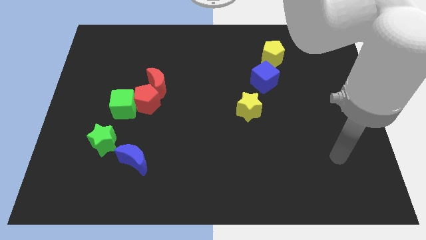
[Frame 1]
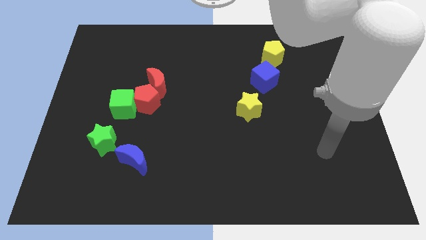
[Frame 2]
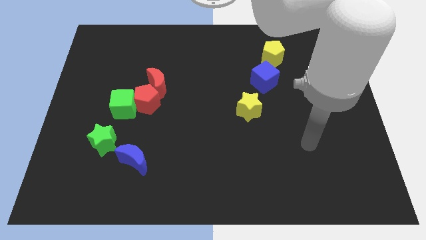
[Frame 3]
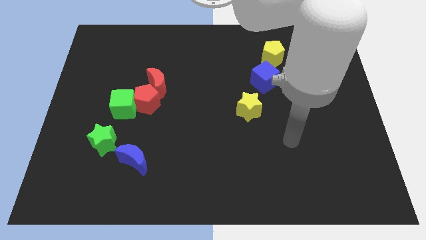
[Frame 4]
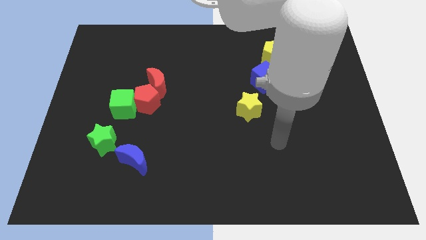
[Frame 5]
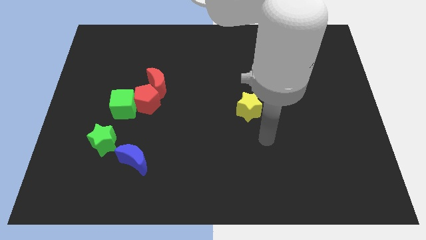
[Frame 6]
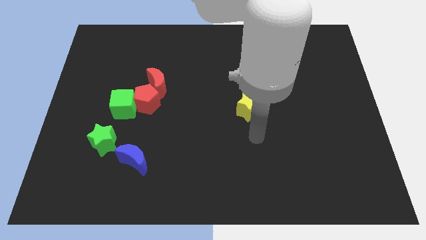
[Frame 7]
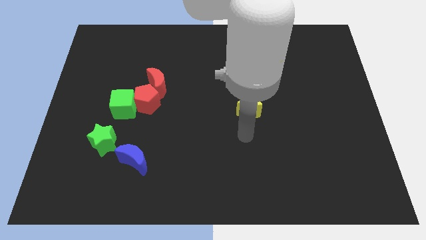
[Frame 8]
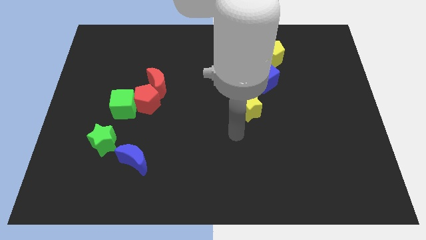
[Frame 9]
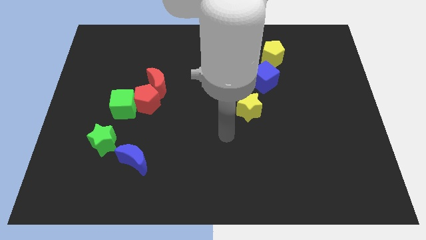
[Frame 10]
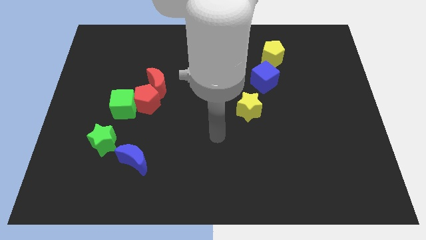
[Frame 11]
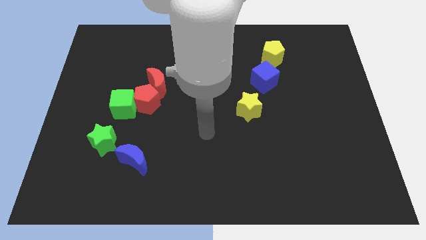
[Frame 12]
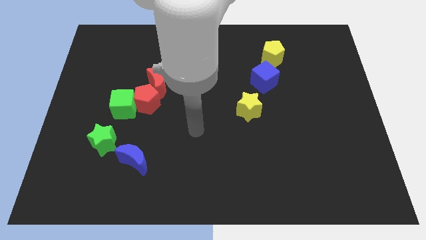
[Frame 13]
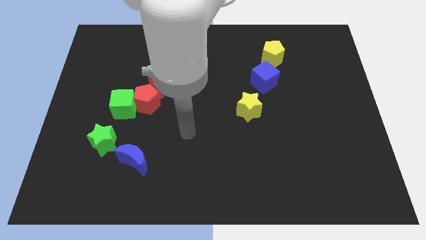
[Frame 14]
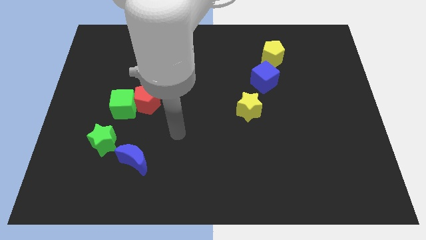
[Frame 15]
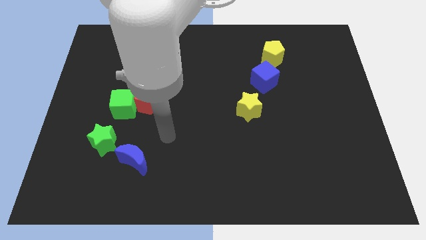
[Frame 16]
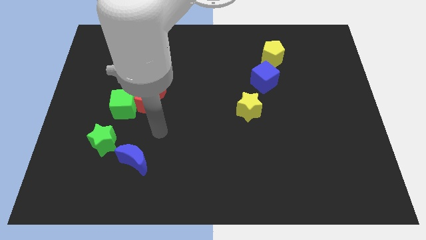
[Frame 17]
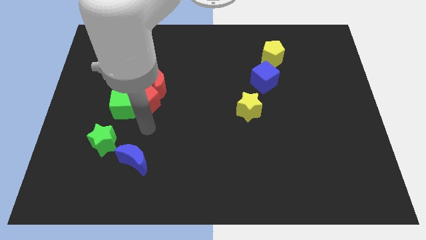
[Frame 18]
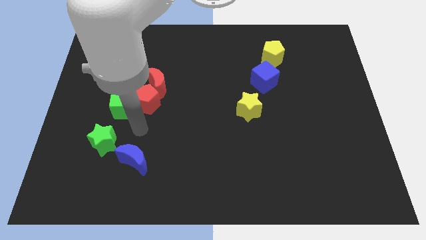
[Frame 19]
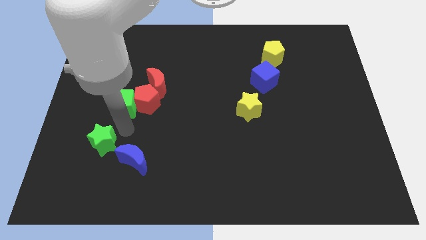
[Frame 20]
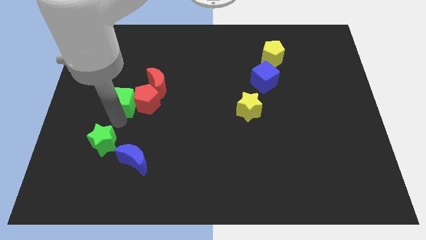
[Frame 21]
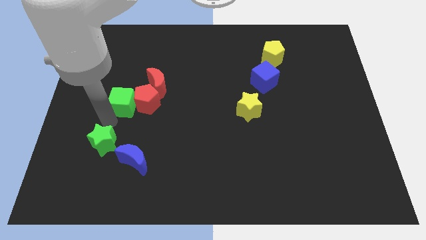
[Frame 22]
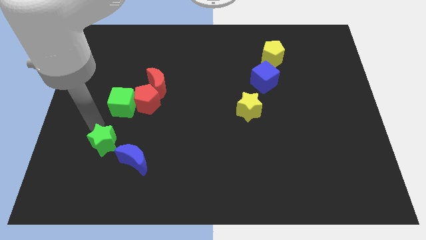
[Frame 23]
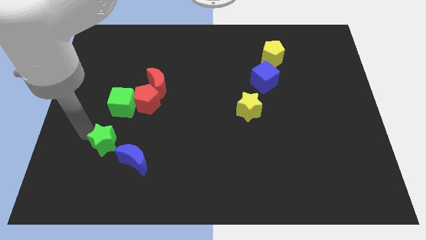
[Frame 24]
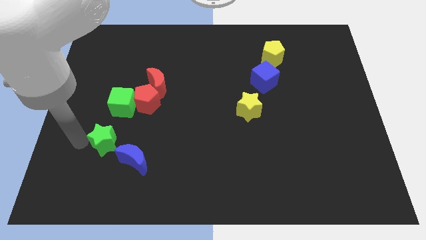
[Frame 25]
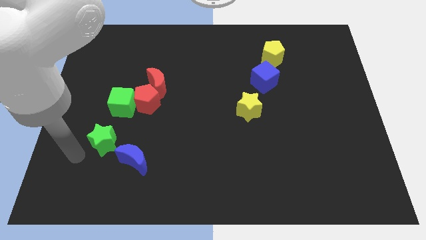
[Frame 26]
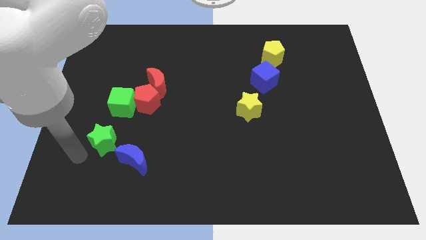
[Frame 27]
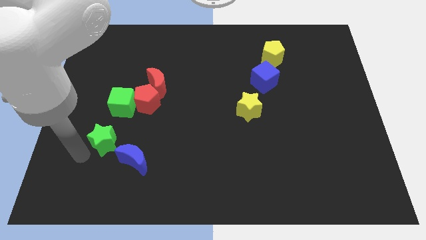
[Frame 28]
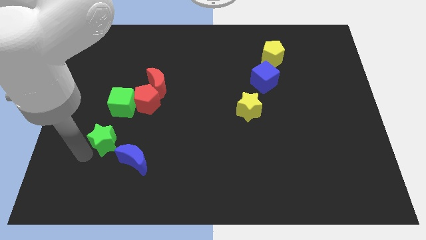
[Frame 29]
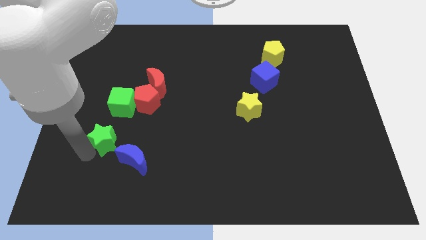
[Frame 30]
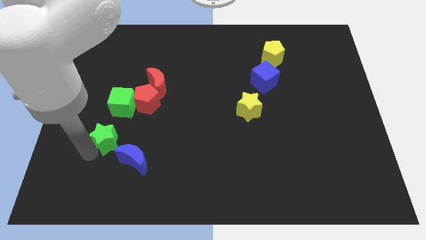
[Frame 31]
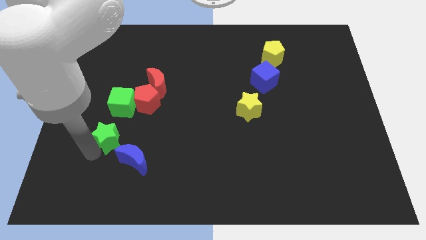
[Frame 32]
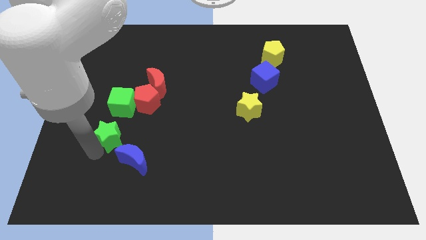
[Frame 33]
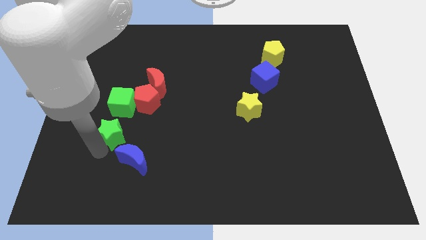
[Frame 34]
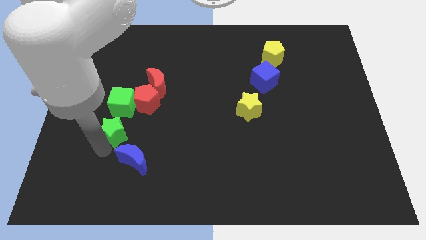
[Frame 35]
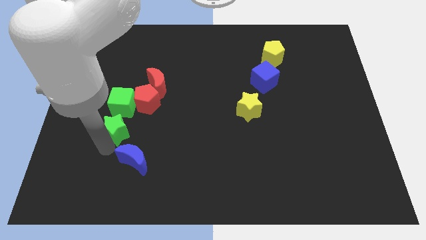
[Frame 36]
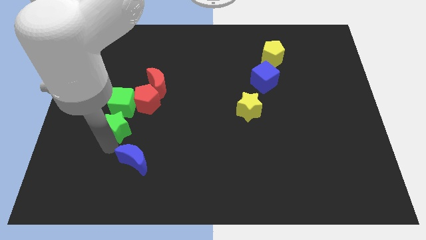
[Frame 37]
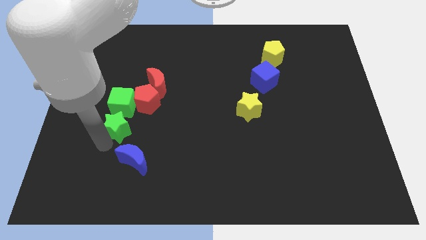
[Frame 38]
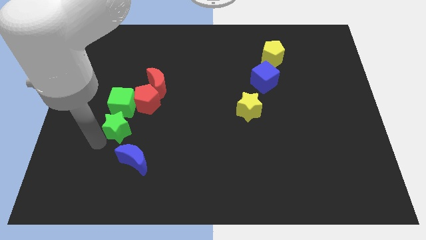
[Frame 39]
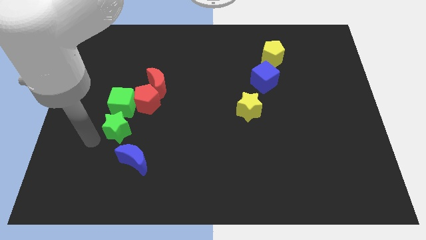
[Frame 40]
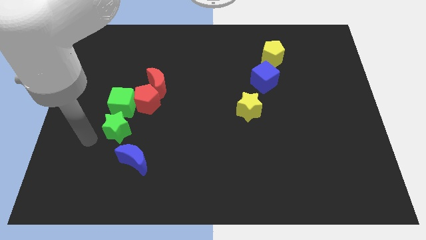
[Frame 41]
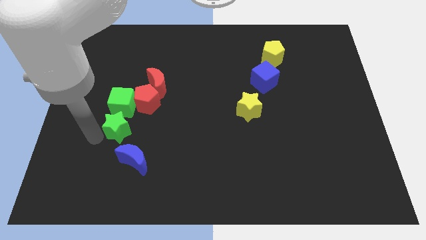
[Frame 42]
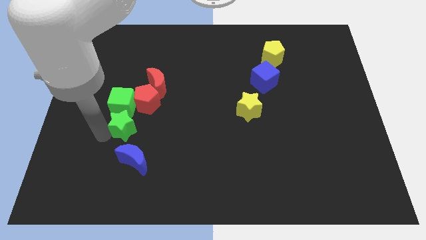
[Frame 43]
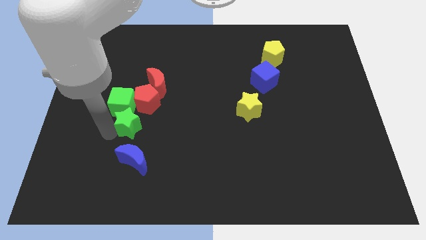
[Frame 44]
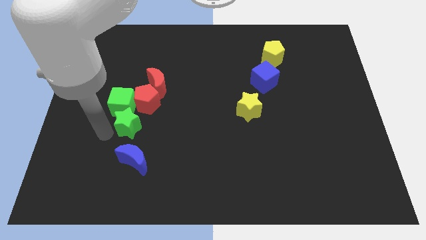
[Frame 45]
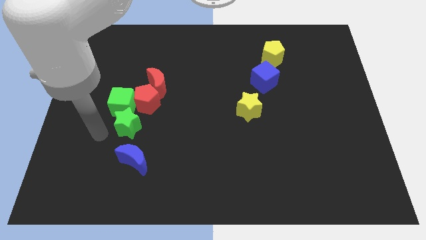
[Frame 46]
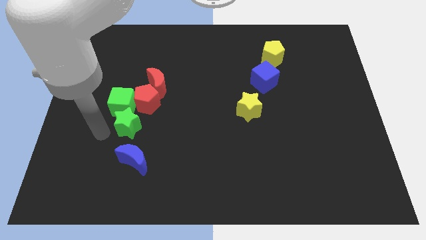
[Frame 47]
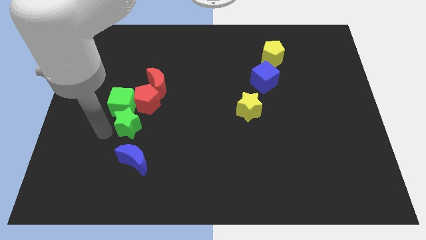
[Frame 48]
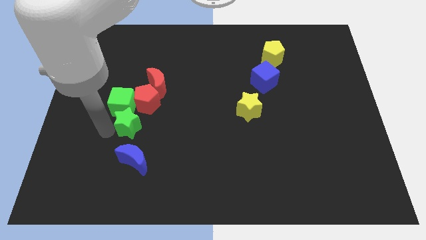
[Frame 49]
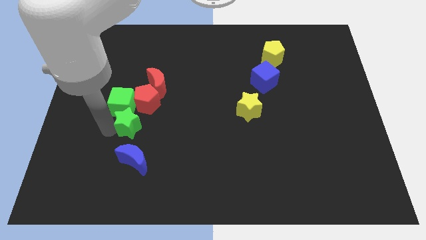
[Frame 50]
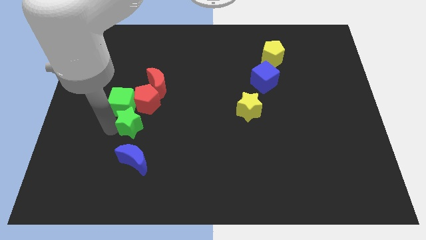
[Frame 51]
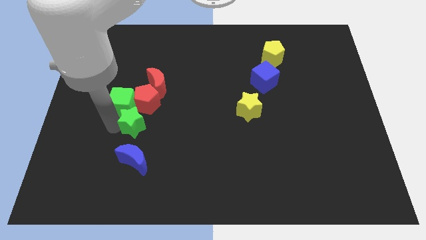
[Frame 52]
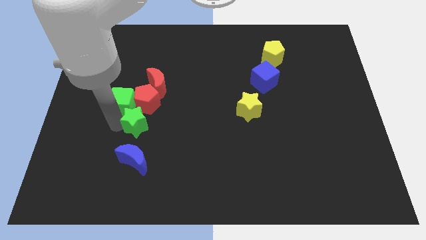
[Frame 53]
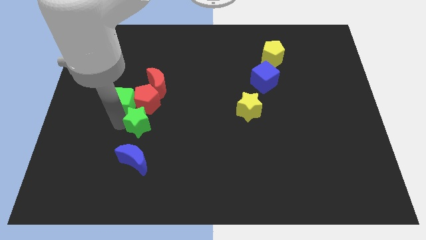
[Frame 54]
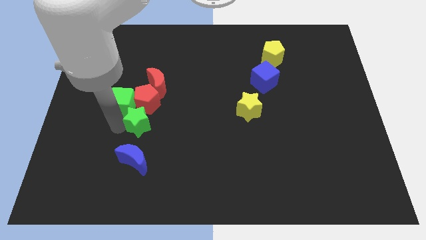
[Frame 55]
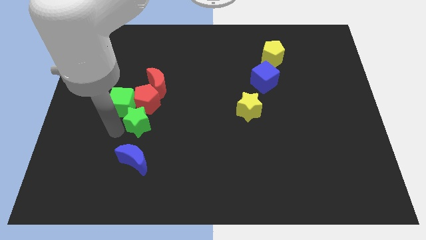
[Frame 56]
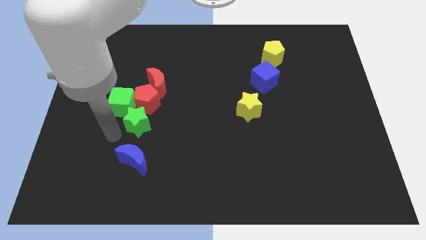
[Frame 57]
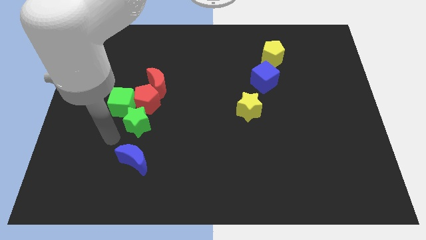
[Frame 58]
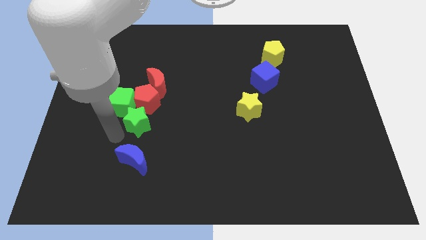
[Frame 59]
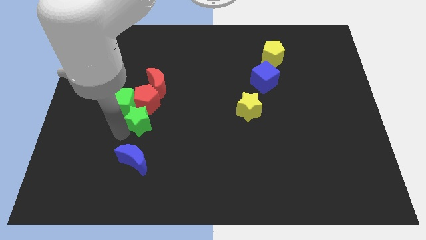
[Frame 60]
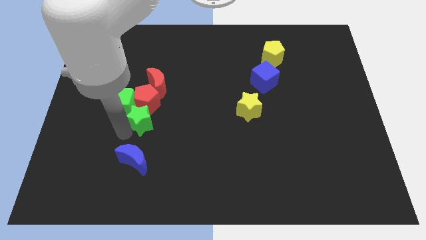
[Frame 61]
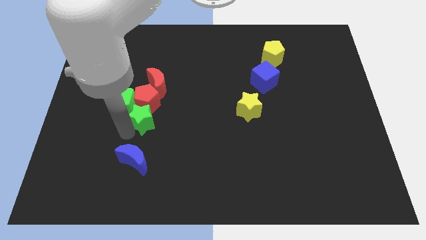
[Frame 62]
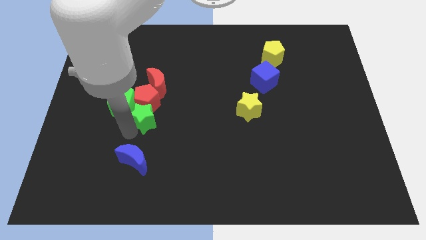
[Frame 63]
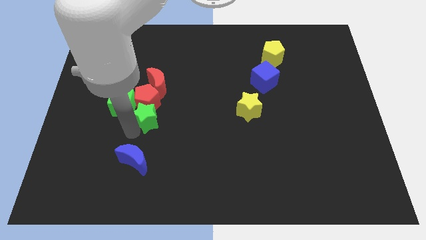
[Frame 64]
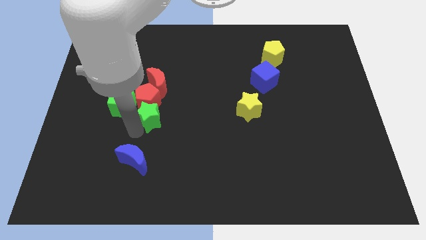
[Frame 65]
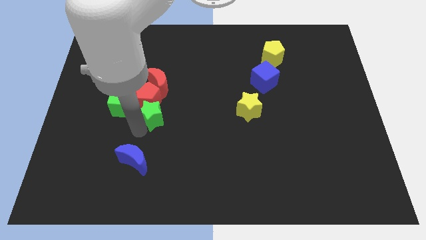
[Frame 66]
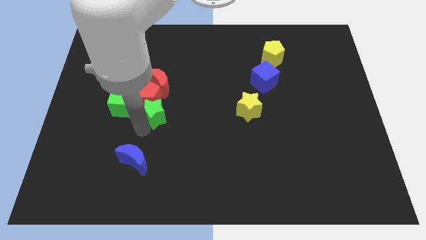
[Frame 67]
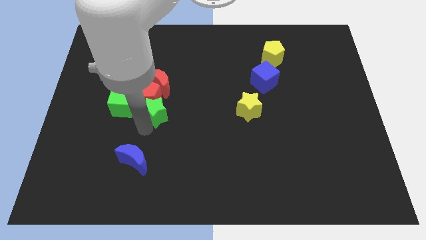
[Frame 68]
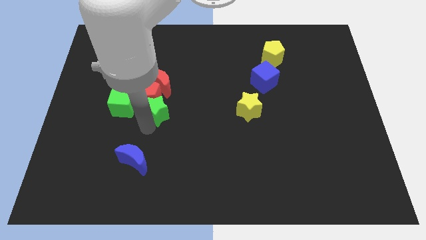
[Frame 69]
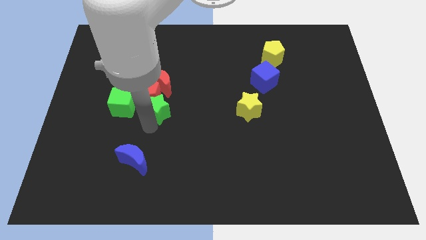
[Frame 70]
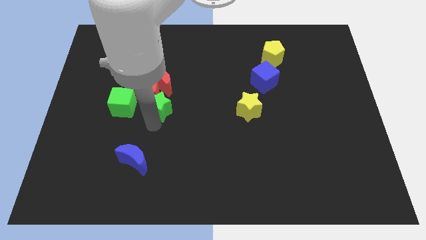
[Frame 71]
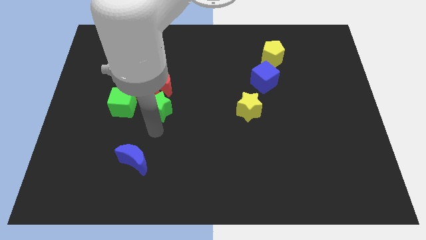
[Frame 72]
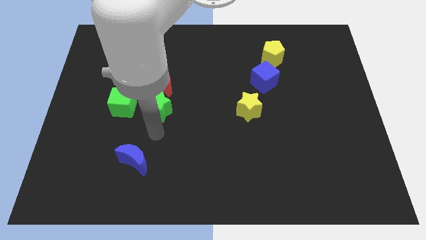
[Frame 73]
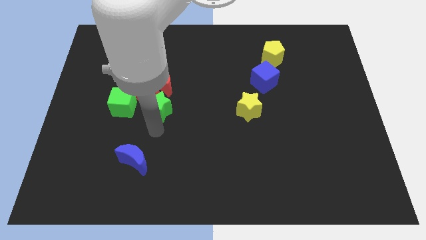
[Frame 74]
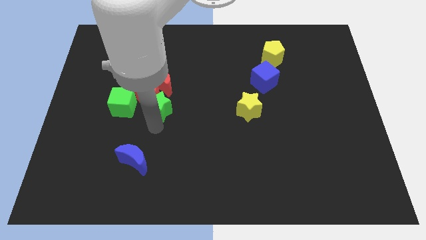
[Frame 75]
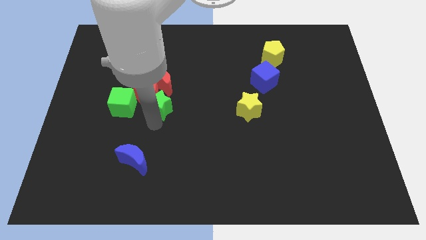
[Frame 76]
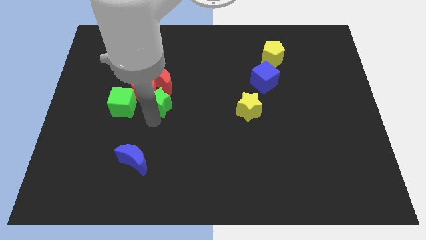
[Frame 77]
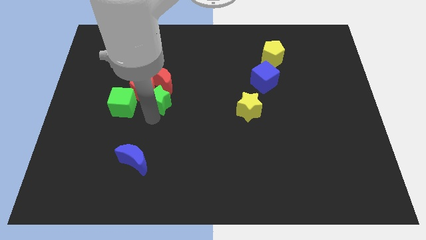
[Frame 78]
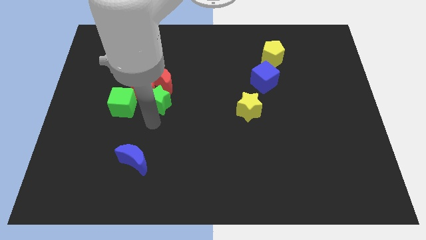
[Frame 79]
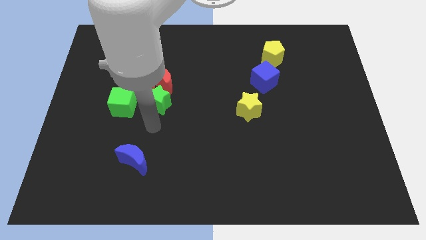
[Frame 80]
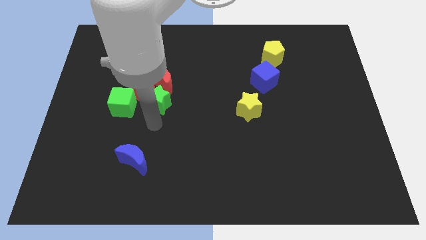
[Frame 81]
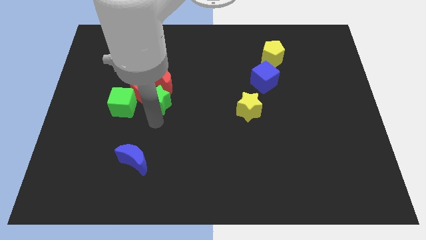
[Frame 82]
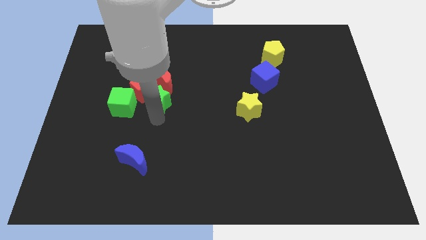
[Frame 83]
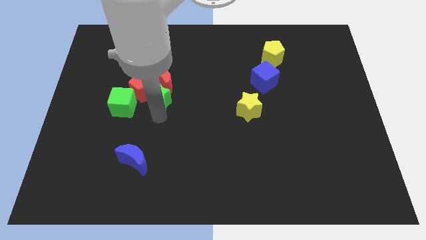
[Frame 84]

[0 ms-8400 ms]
slide the green star next to the red moon
